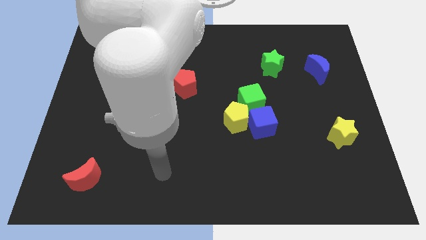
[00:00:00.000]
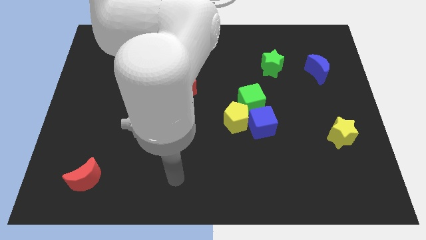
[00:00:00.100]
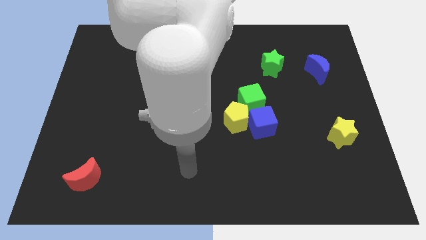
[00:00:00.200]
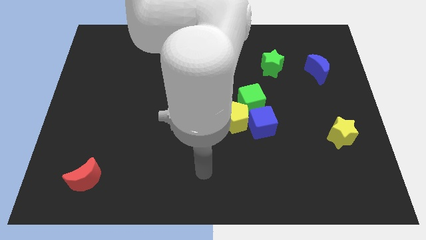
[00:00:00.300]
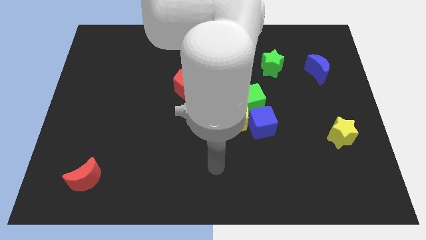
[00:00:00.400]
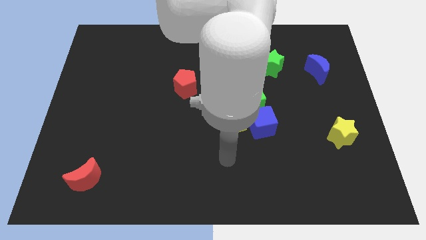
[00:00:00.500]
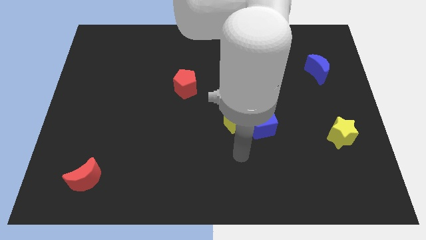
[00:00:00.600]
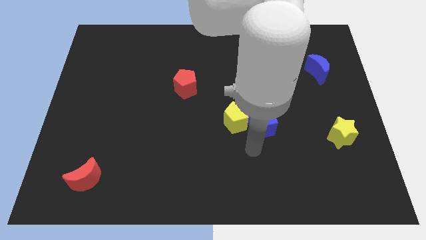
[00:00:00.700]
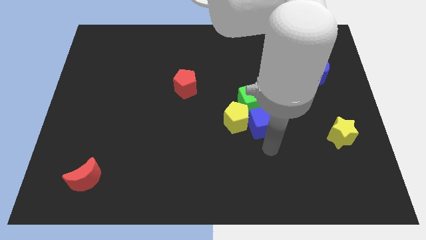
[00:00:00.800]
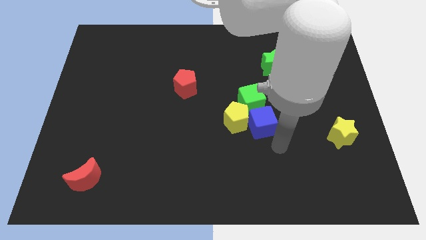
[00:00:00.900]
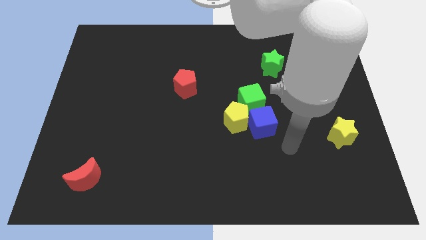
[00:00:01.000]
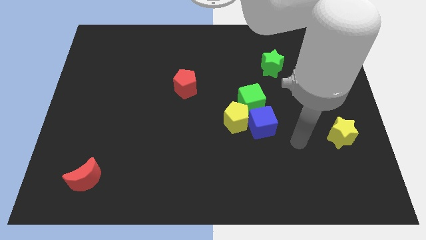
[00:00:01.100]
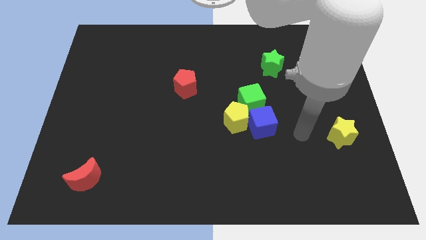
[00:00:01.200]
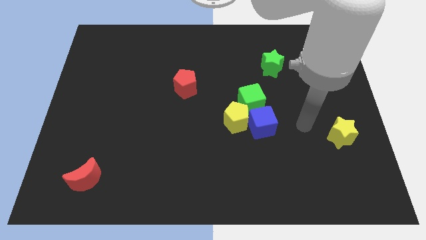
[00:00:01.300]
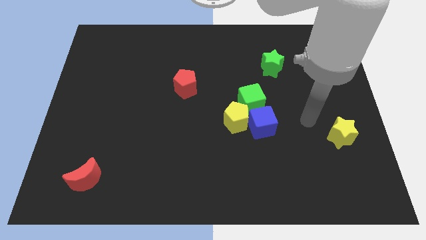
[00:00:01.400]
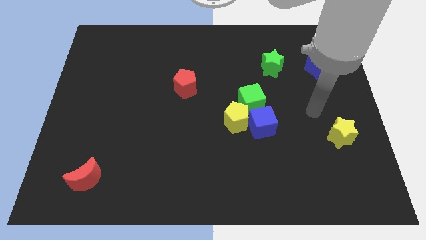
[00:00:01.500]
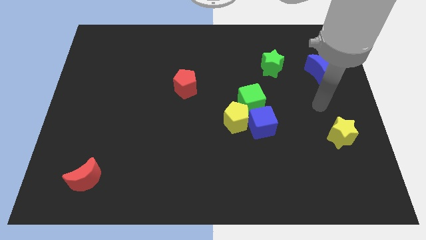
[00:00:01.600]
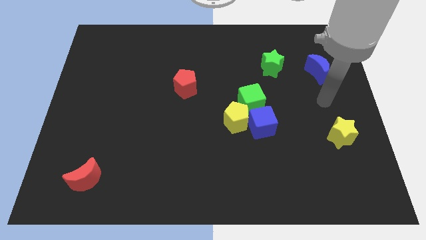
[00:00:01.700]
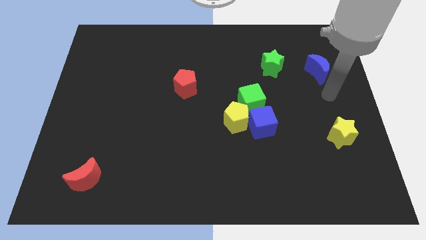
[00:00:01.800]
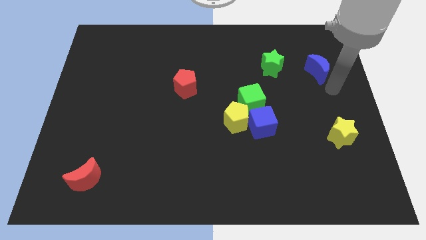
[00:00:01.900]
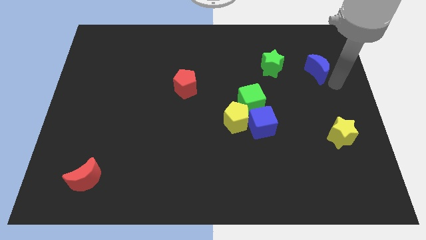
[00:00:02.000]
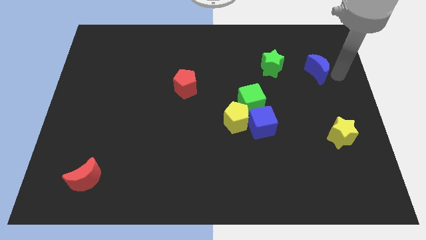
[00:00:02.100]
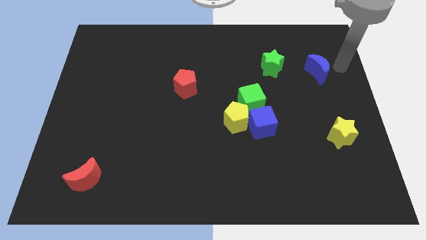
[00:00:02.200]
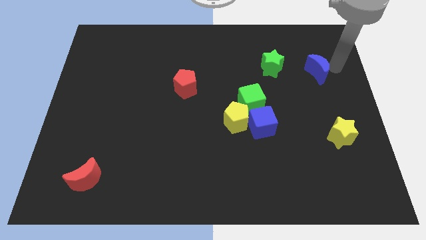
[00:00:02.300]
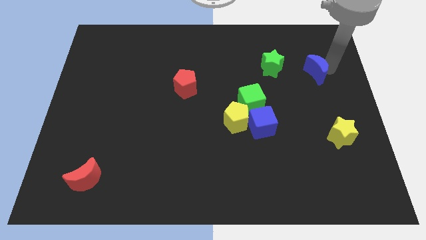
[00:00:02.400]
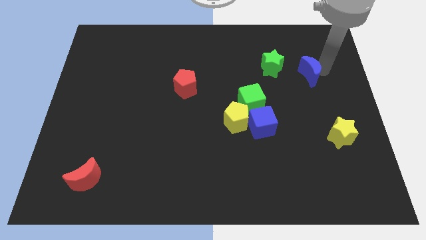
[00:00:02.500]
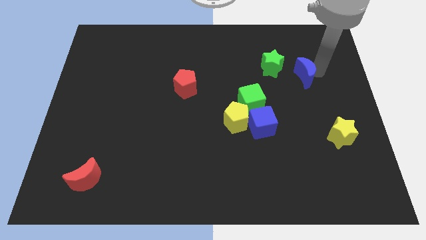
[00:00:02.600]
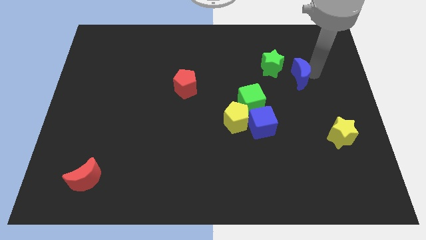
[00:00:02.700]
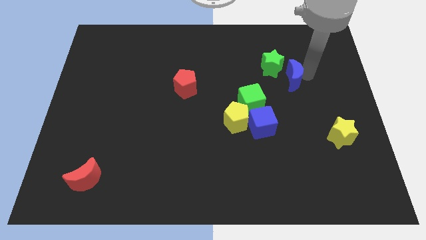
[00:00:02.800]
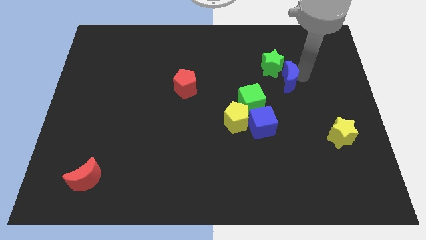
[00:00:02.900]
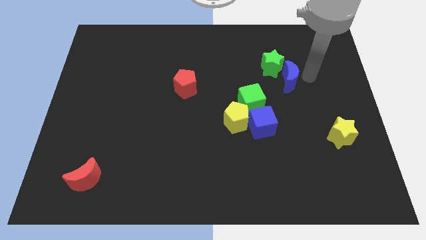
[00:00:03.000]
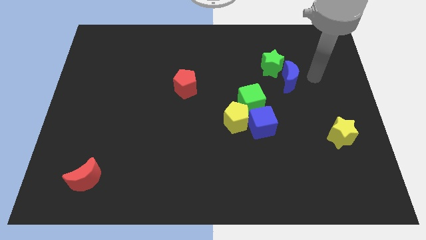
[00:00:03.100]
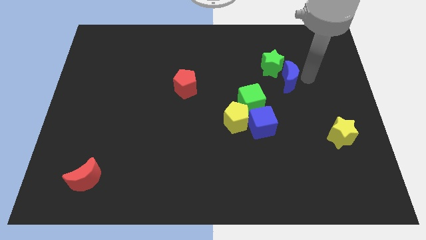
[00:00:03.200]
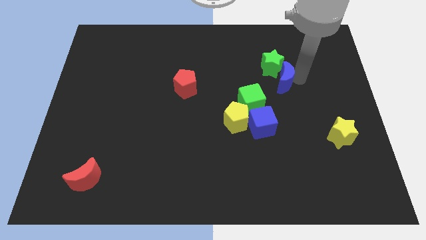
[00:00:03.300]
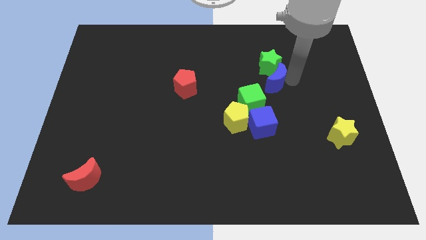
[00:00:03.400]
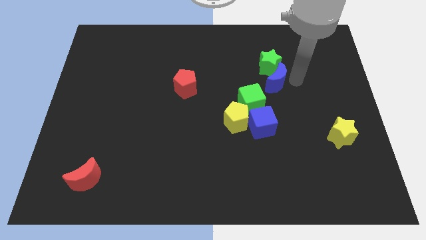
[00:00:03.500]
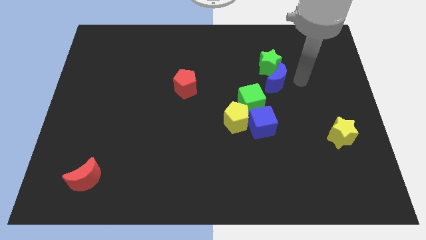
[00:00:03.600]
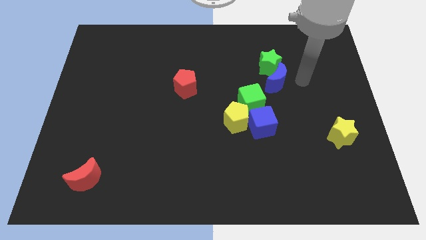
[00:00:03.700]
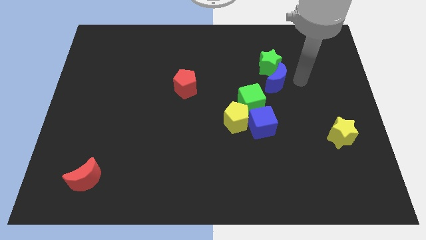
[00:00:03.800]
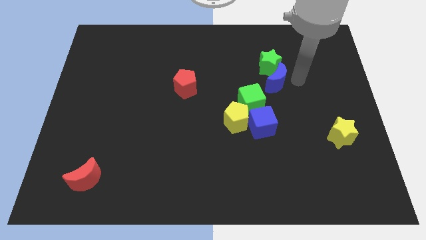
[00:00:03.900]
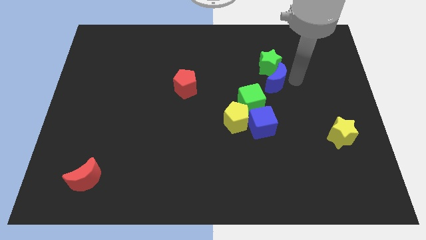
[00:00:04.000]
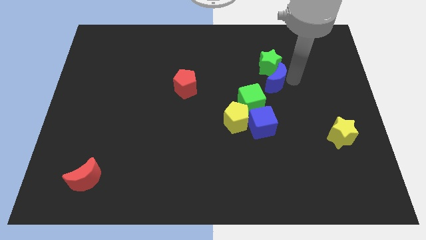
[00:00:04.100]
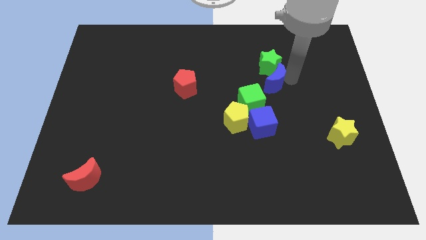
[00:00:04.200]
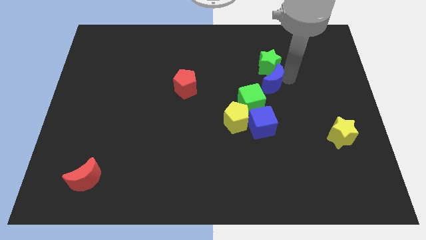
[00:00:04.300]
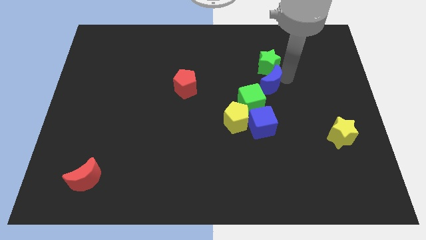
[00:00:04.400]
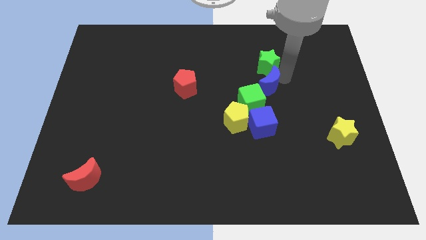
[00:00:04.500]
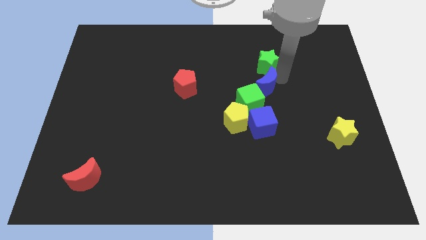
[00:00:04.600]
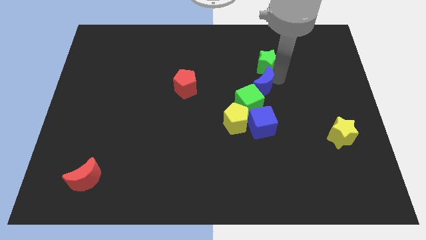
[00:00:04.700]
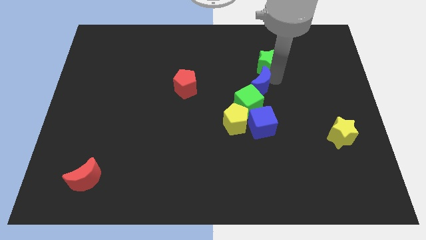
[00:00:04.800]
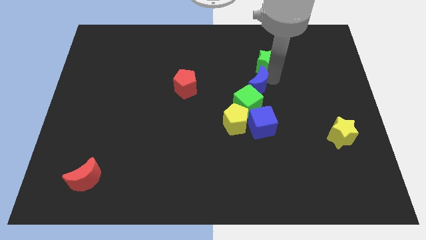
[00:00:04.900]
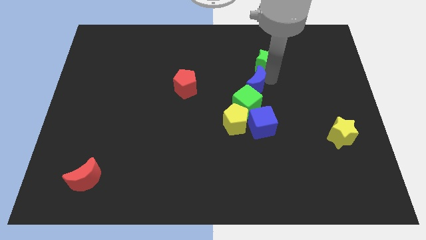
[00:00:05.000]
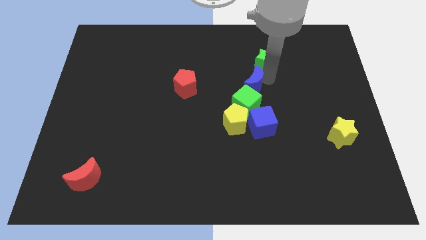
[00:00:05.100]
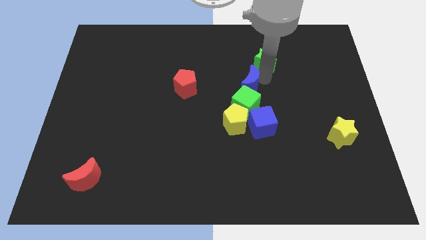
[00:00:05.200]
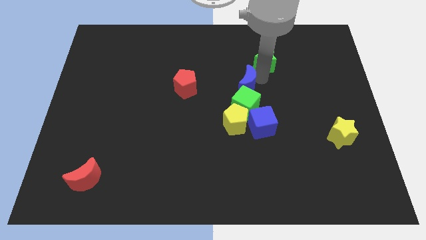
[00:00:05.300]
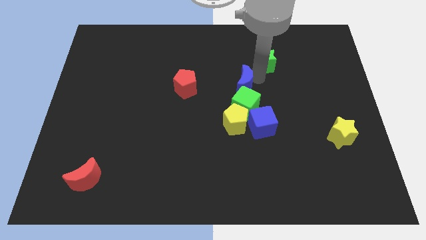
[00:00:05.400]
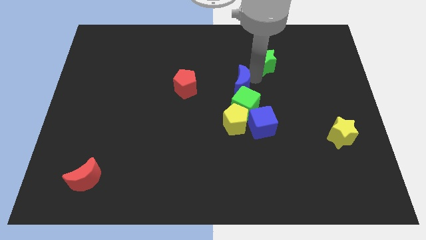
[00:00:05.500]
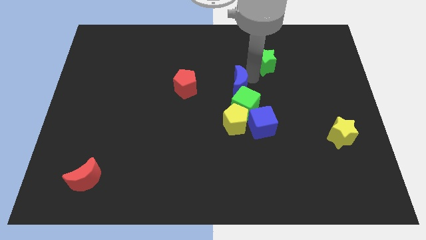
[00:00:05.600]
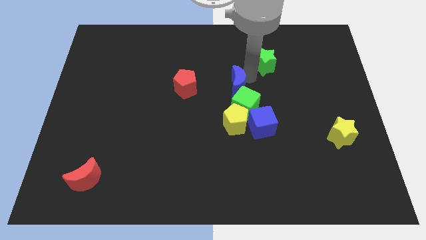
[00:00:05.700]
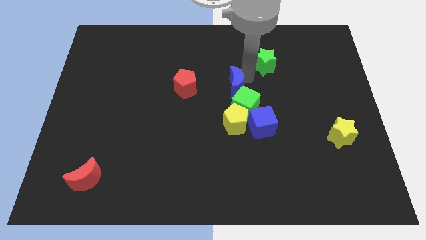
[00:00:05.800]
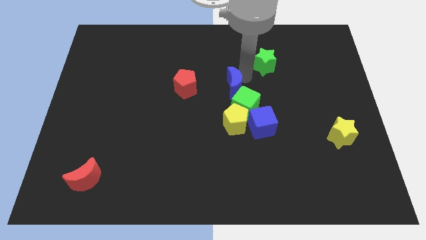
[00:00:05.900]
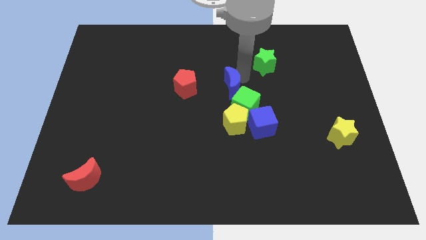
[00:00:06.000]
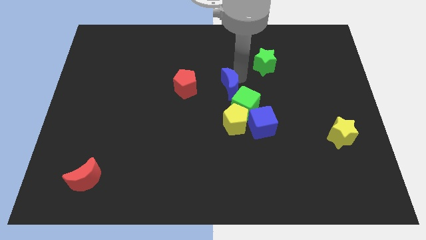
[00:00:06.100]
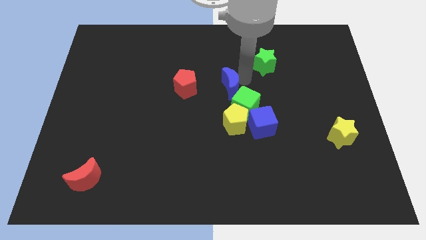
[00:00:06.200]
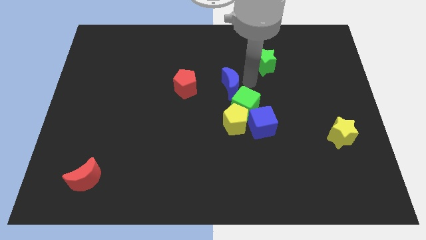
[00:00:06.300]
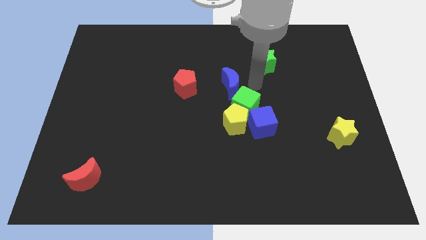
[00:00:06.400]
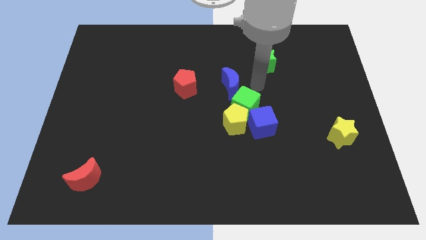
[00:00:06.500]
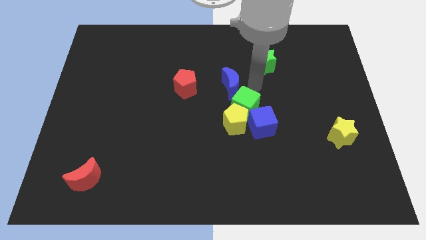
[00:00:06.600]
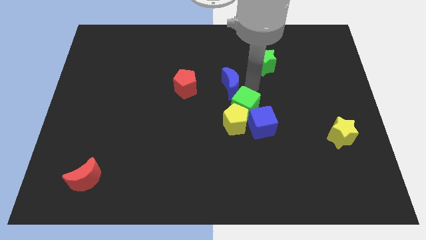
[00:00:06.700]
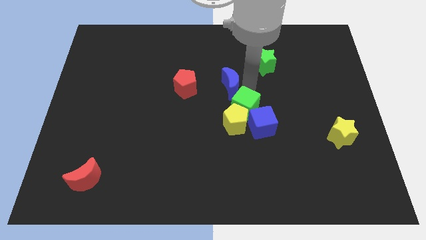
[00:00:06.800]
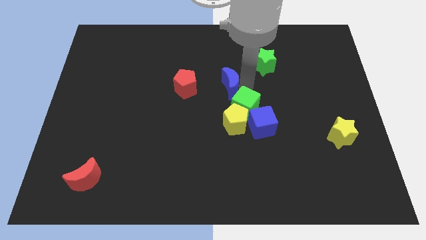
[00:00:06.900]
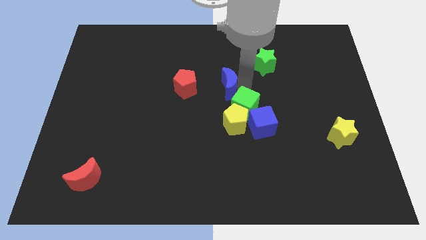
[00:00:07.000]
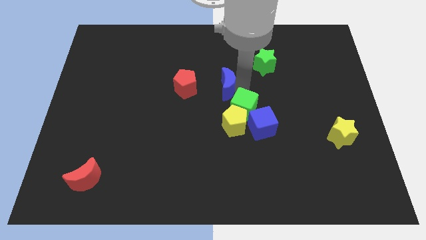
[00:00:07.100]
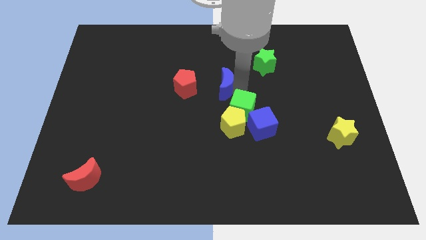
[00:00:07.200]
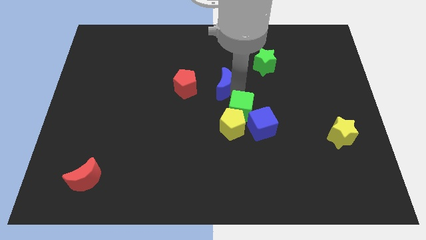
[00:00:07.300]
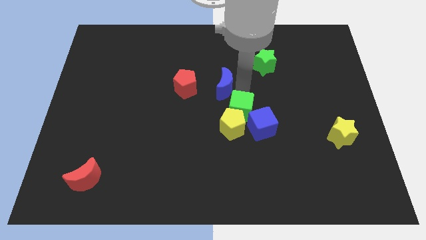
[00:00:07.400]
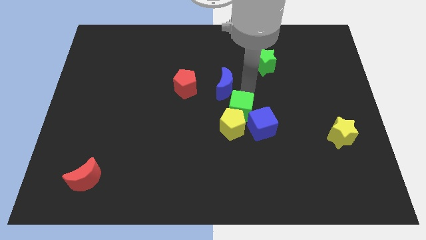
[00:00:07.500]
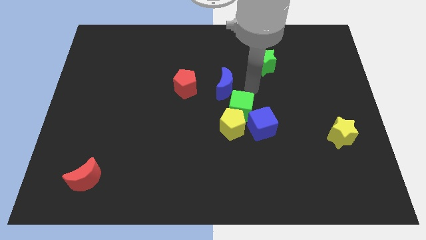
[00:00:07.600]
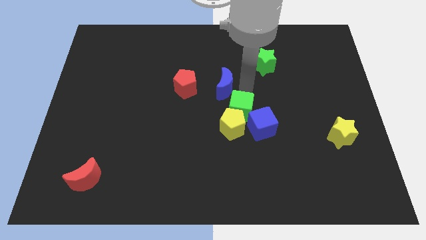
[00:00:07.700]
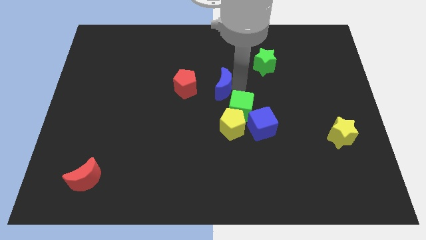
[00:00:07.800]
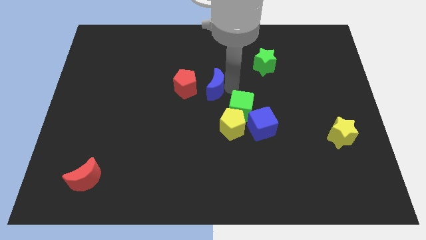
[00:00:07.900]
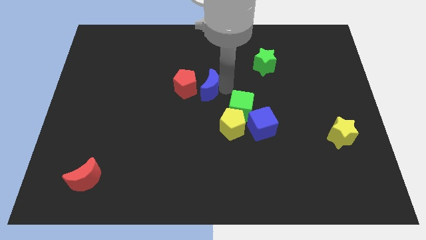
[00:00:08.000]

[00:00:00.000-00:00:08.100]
push the blue moon to the red pentagon
